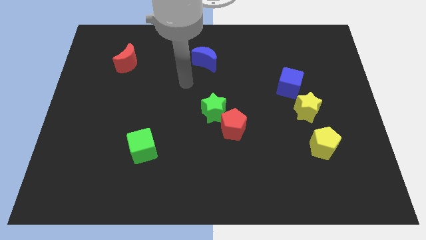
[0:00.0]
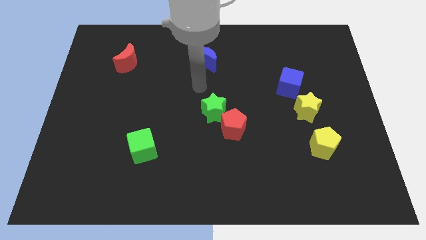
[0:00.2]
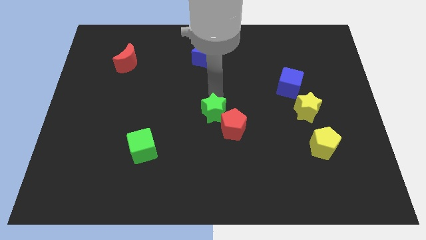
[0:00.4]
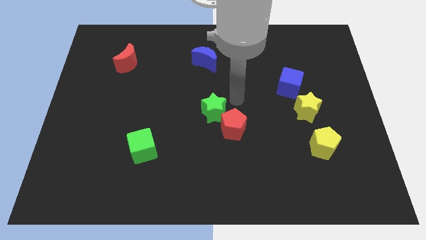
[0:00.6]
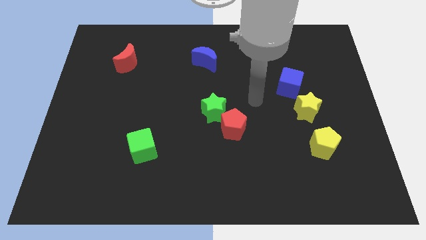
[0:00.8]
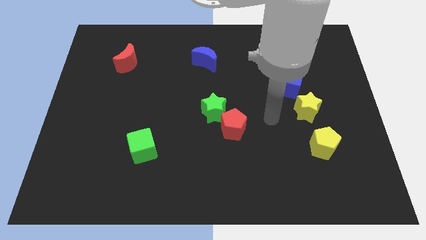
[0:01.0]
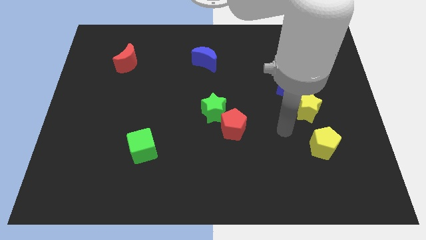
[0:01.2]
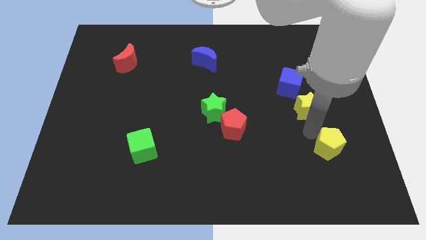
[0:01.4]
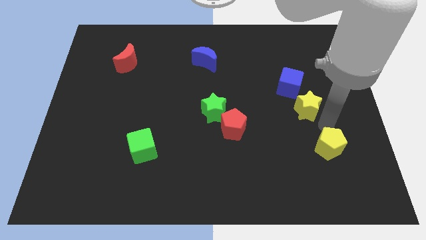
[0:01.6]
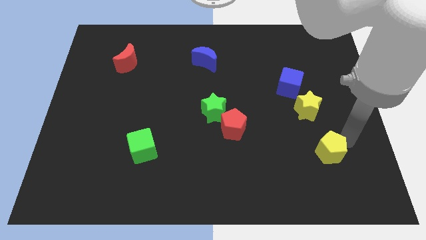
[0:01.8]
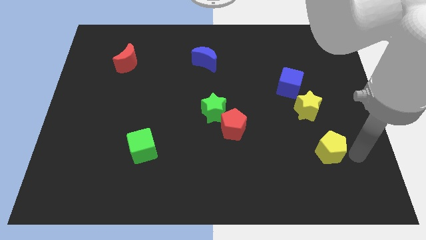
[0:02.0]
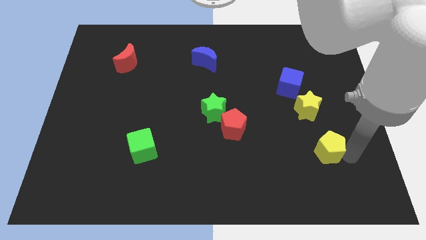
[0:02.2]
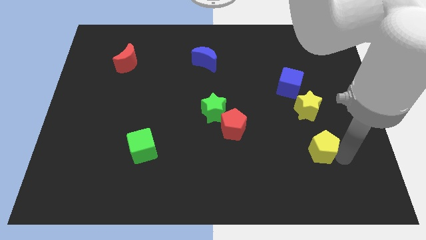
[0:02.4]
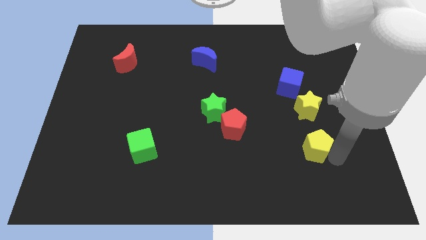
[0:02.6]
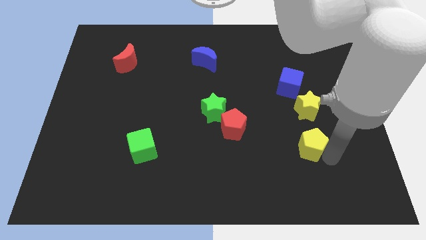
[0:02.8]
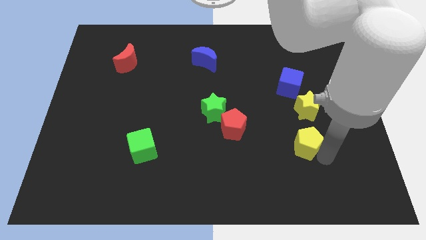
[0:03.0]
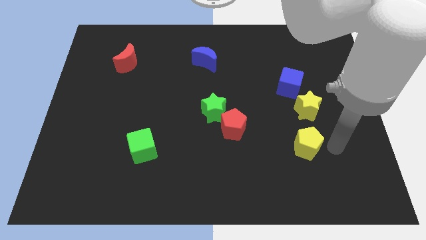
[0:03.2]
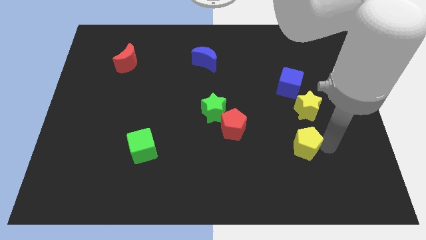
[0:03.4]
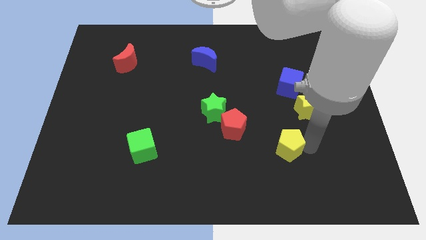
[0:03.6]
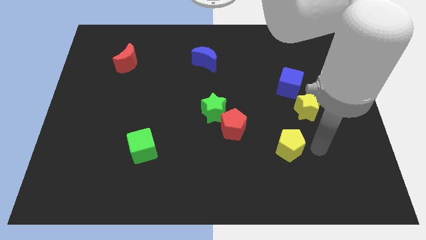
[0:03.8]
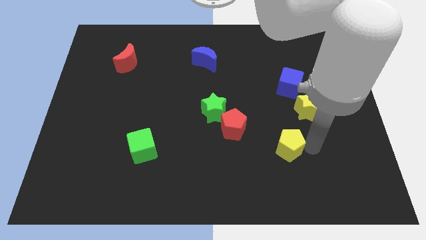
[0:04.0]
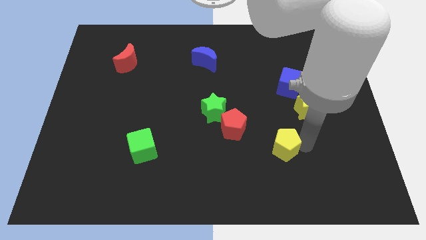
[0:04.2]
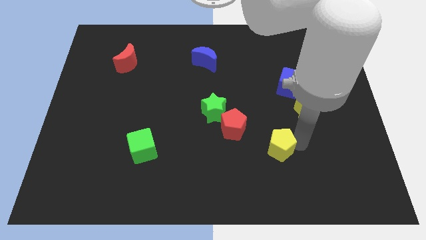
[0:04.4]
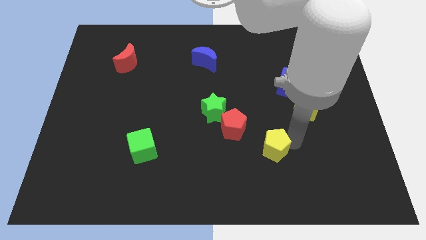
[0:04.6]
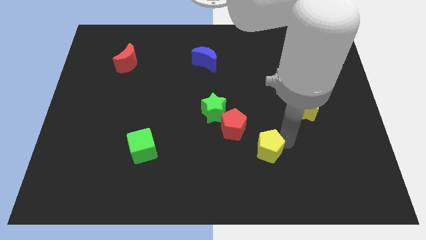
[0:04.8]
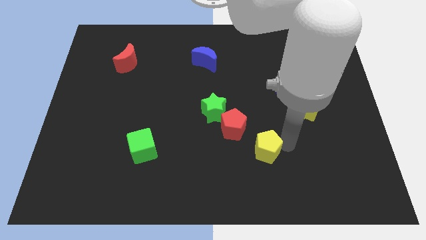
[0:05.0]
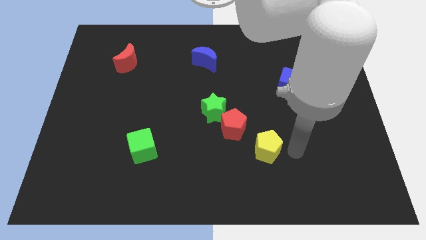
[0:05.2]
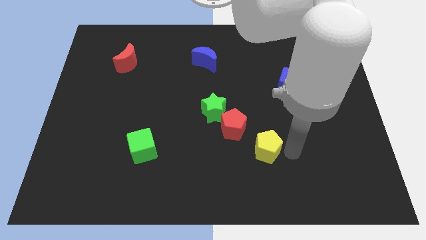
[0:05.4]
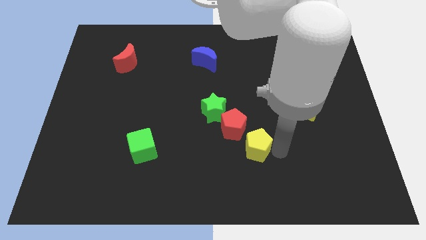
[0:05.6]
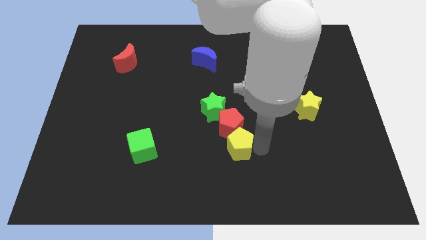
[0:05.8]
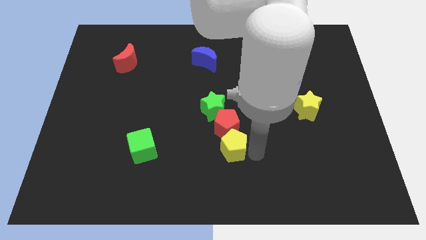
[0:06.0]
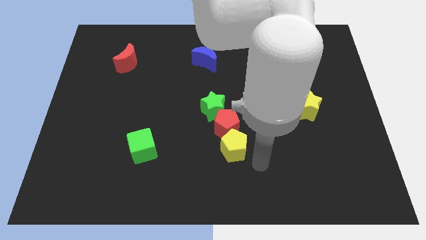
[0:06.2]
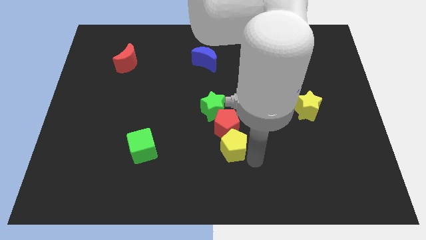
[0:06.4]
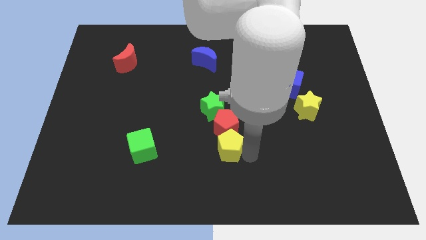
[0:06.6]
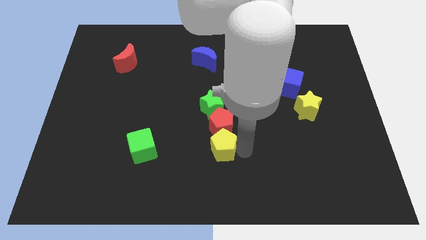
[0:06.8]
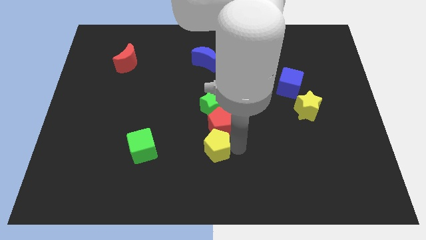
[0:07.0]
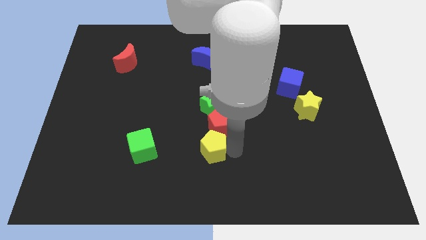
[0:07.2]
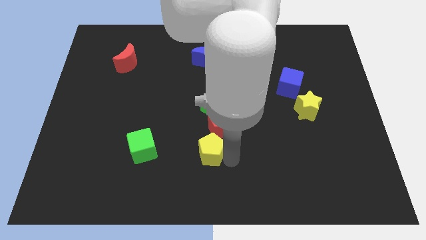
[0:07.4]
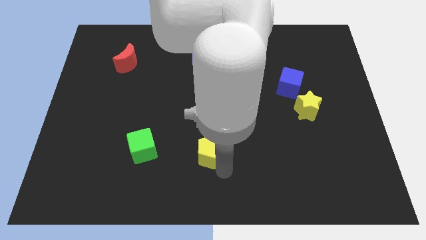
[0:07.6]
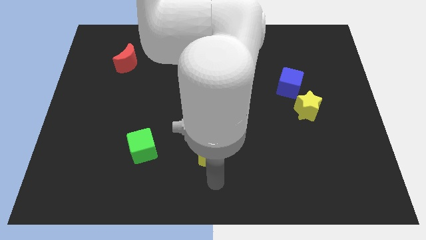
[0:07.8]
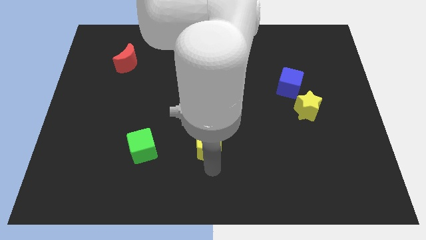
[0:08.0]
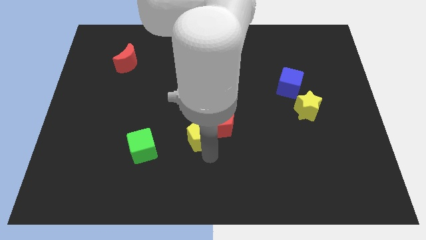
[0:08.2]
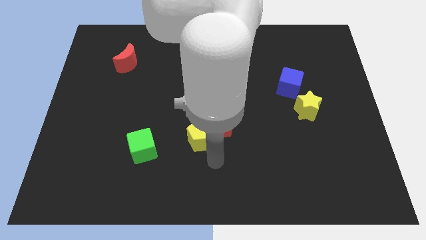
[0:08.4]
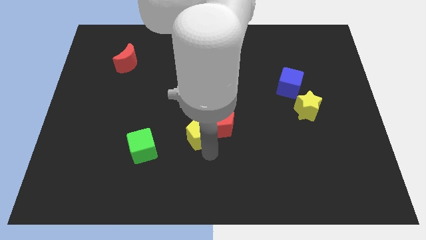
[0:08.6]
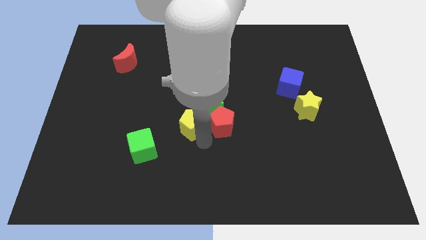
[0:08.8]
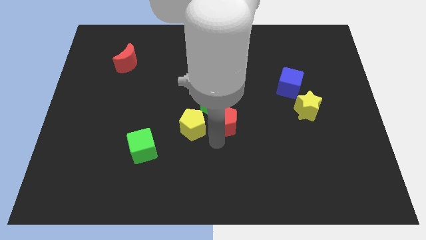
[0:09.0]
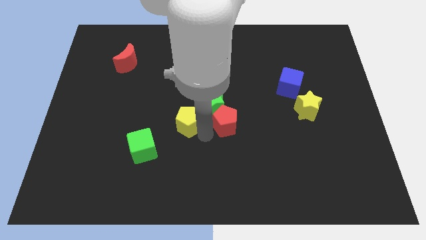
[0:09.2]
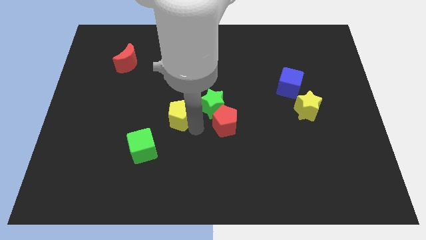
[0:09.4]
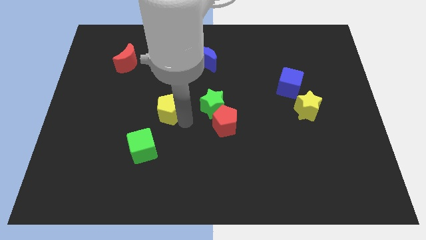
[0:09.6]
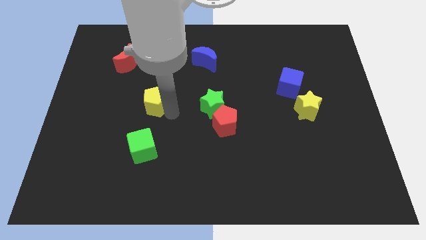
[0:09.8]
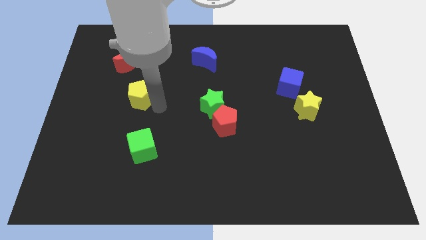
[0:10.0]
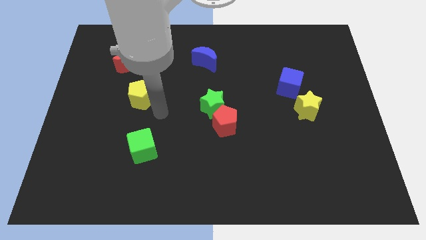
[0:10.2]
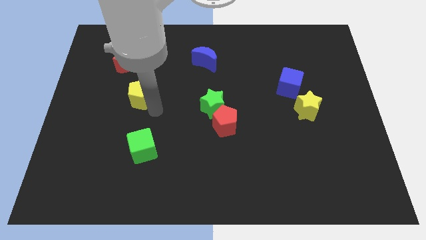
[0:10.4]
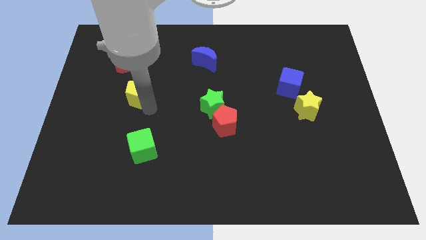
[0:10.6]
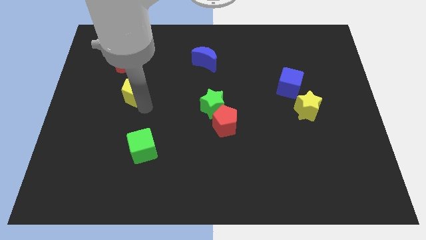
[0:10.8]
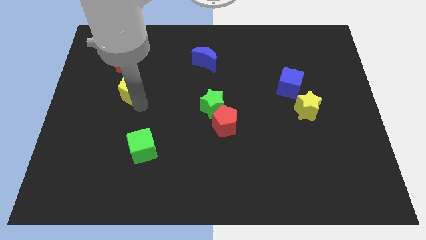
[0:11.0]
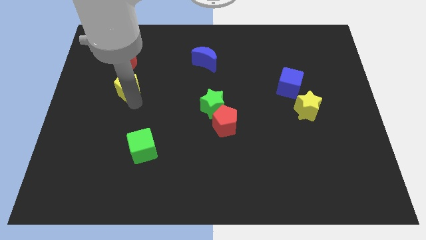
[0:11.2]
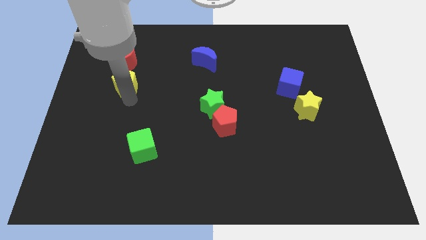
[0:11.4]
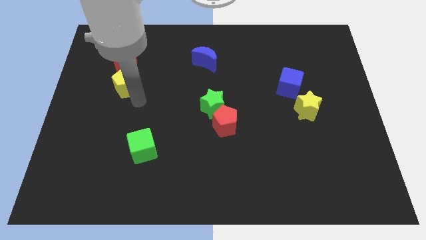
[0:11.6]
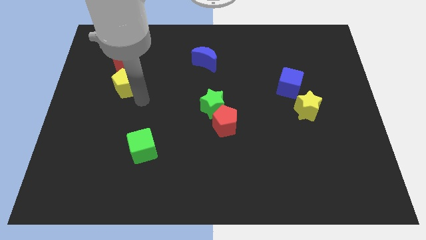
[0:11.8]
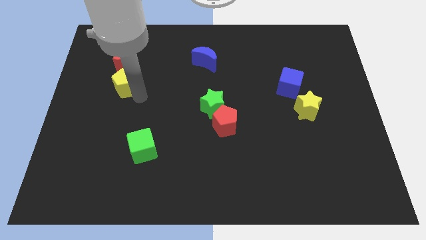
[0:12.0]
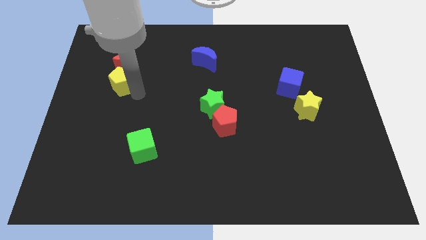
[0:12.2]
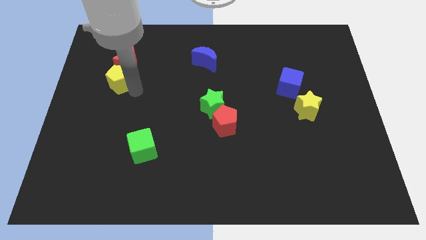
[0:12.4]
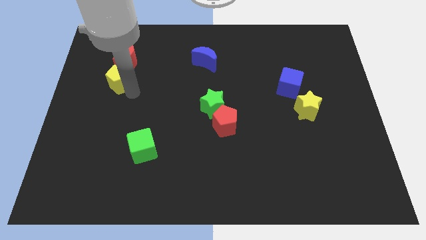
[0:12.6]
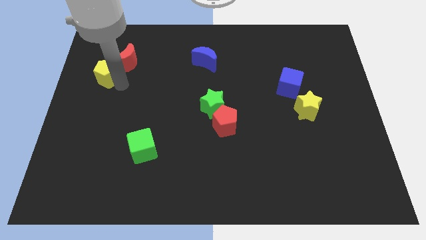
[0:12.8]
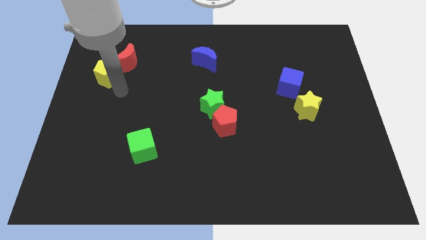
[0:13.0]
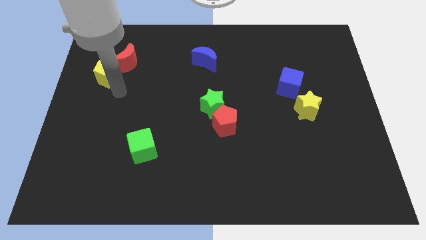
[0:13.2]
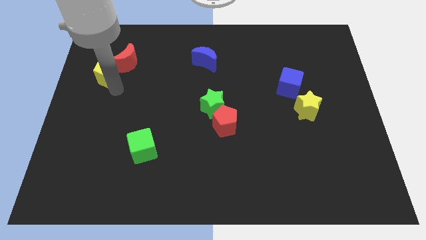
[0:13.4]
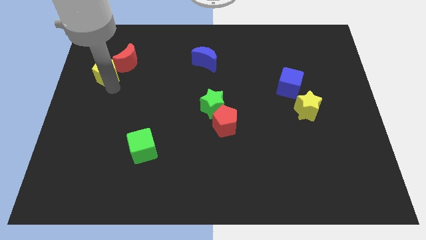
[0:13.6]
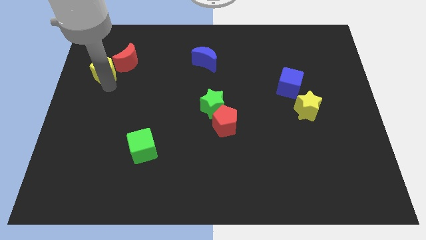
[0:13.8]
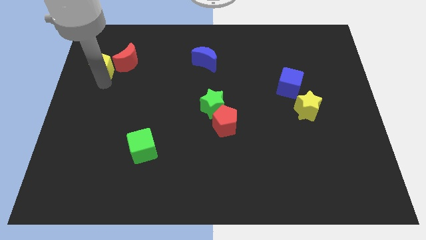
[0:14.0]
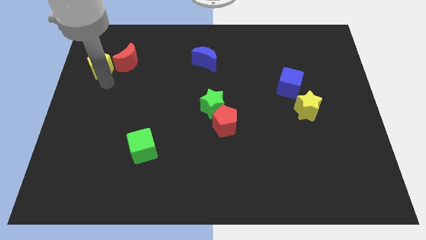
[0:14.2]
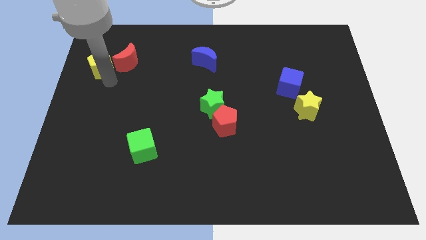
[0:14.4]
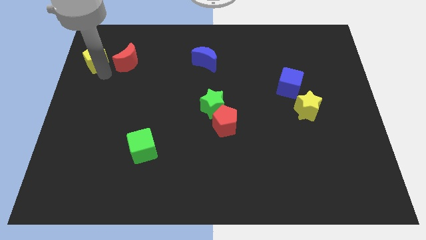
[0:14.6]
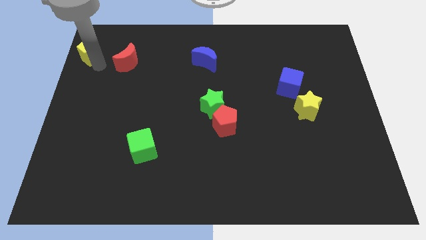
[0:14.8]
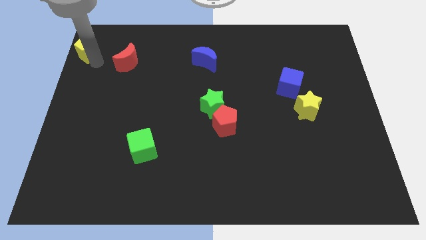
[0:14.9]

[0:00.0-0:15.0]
put the yellow pentagon to the upper left corner
